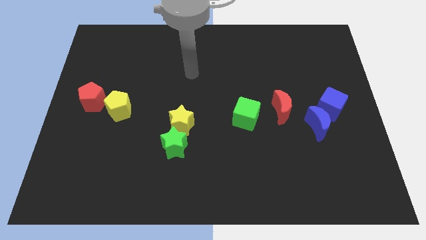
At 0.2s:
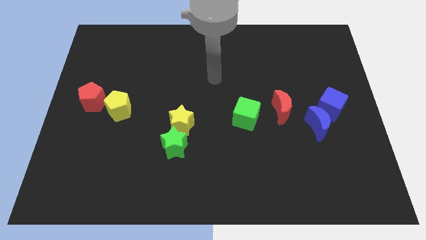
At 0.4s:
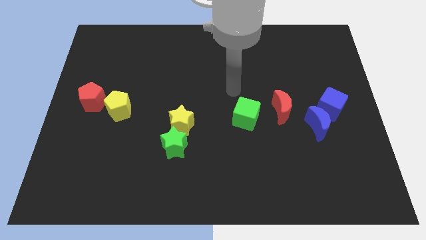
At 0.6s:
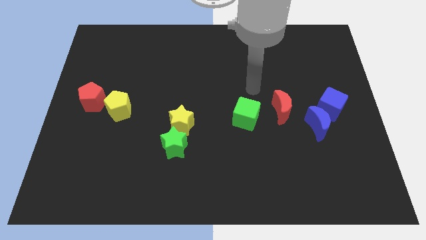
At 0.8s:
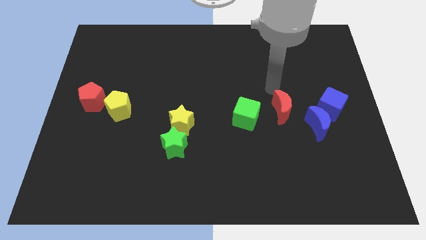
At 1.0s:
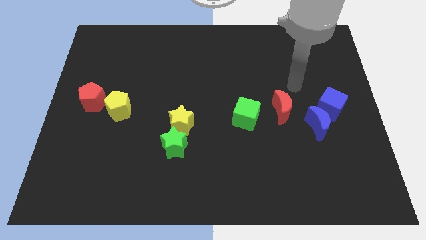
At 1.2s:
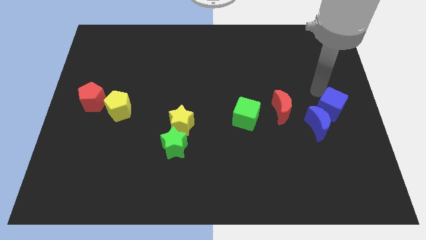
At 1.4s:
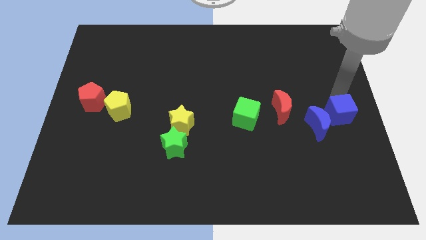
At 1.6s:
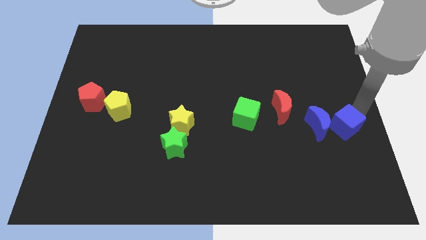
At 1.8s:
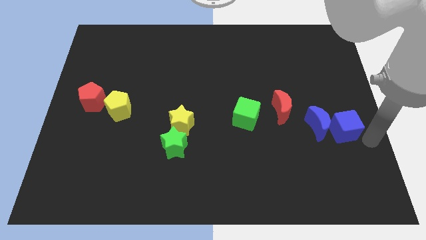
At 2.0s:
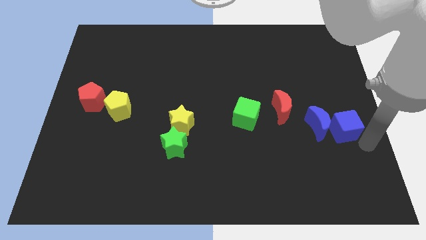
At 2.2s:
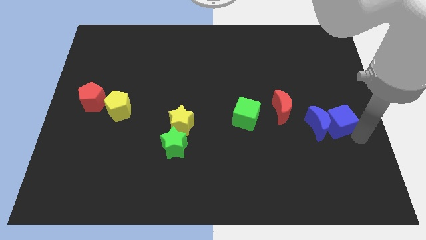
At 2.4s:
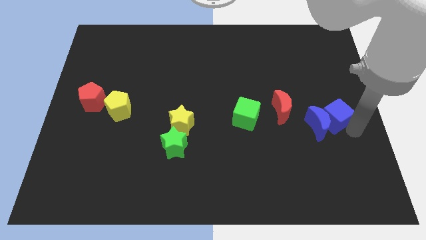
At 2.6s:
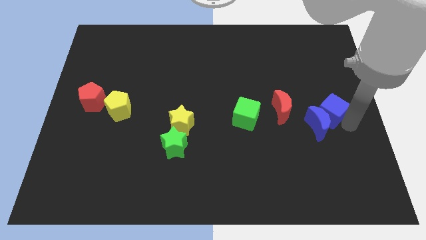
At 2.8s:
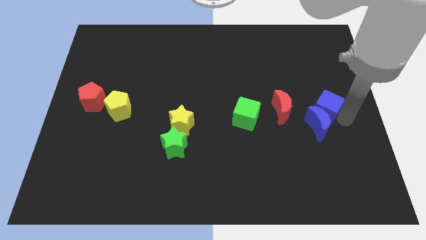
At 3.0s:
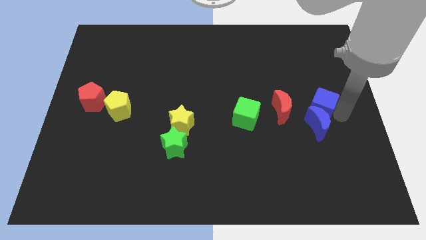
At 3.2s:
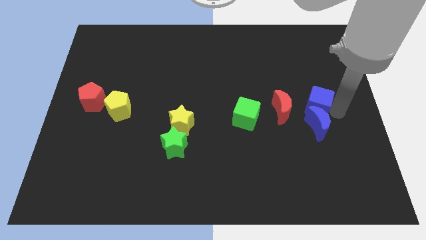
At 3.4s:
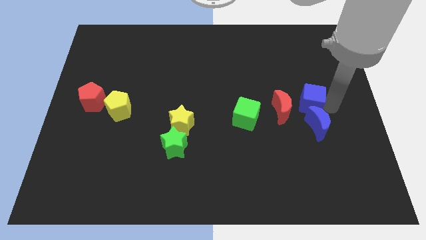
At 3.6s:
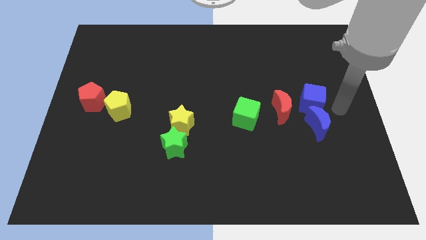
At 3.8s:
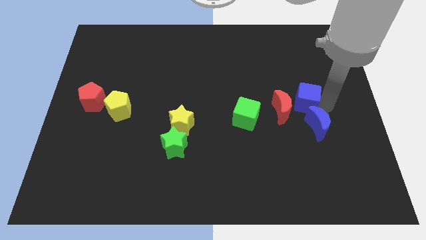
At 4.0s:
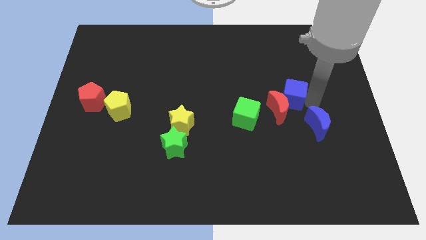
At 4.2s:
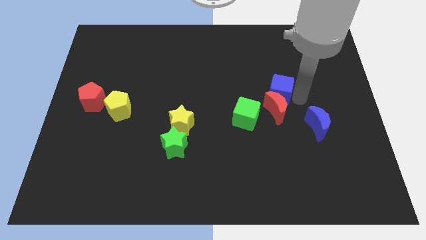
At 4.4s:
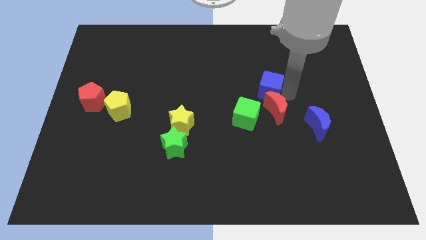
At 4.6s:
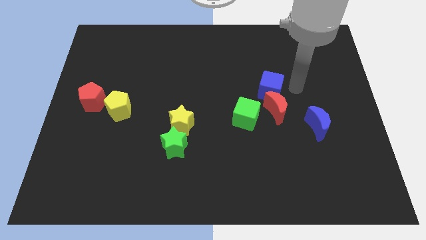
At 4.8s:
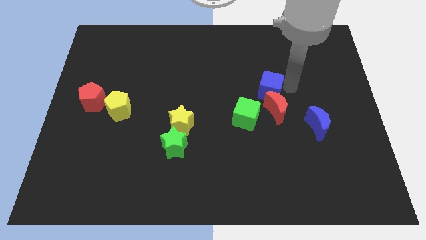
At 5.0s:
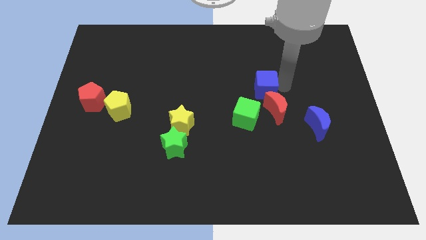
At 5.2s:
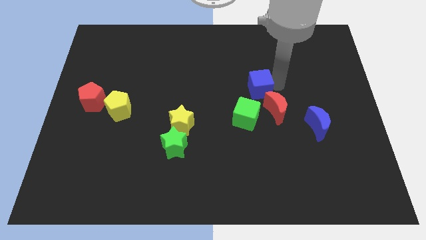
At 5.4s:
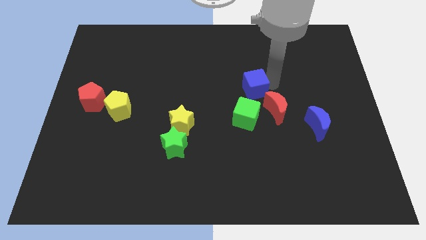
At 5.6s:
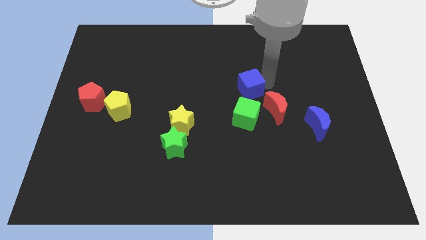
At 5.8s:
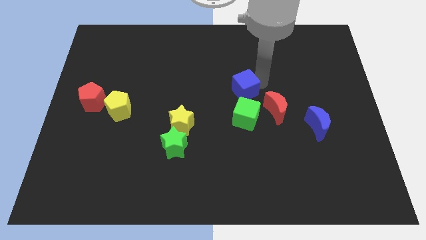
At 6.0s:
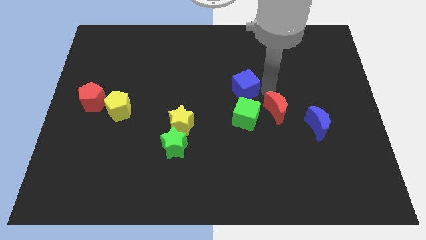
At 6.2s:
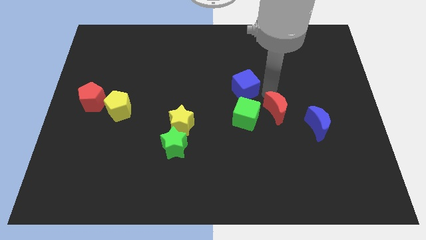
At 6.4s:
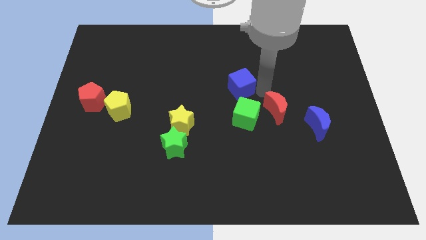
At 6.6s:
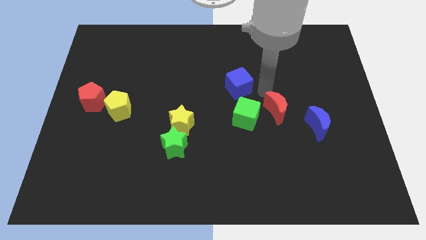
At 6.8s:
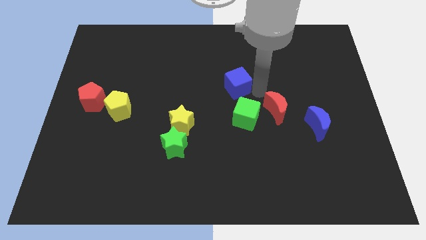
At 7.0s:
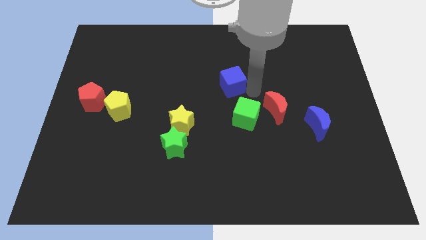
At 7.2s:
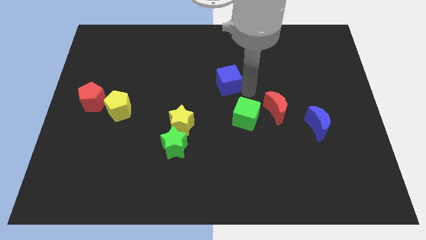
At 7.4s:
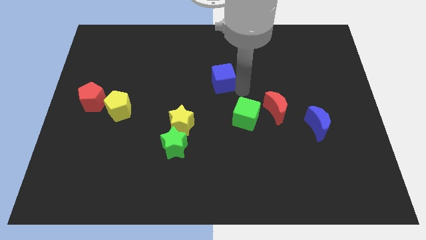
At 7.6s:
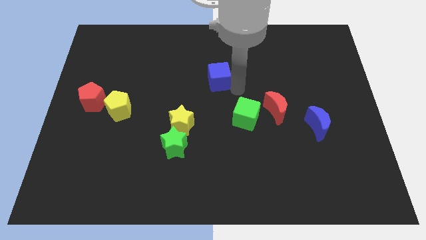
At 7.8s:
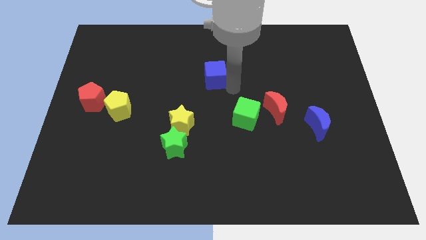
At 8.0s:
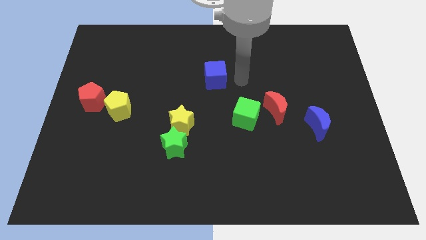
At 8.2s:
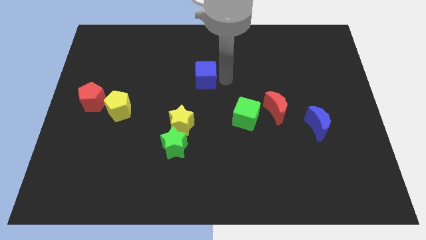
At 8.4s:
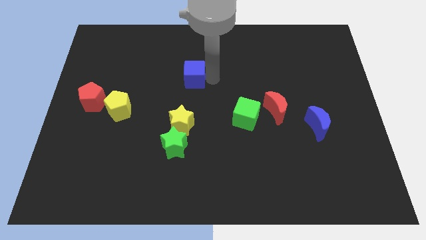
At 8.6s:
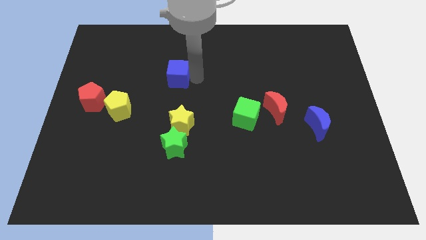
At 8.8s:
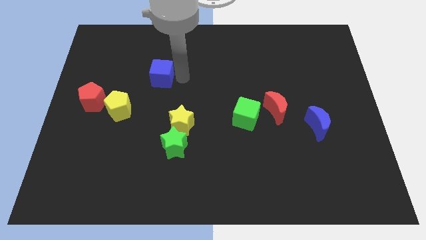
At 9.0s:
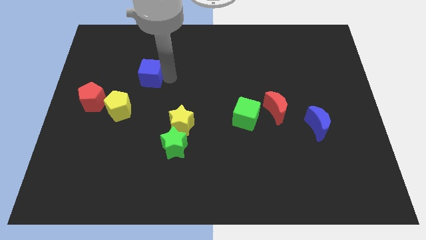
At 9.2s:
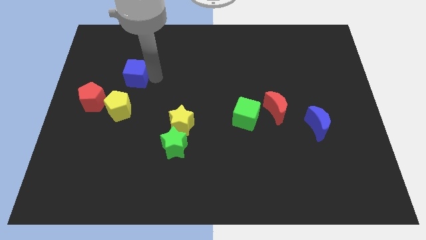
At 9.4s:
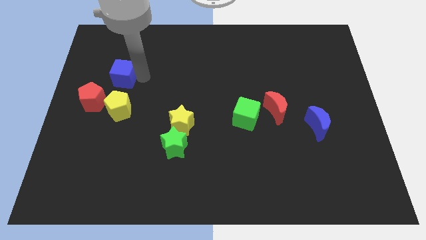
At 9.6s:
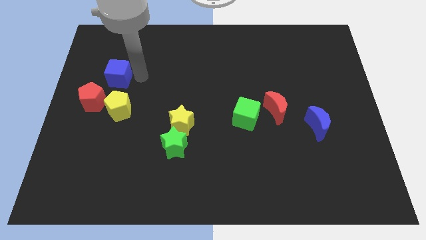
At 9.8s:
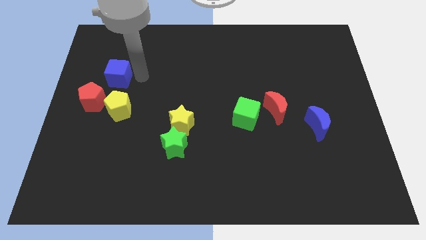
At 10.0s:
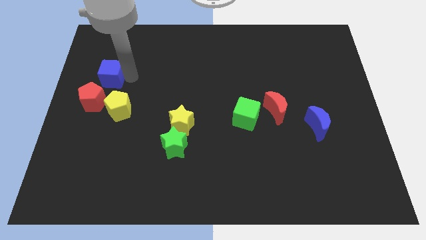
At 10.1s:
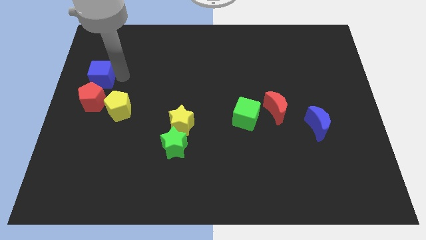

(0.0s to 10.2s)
push the blue cube to the left side of the board
